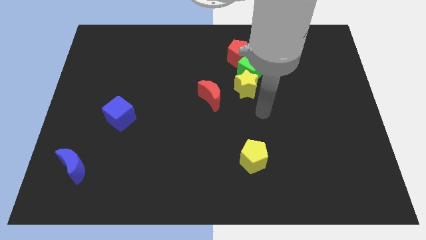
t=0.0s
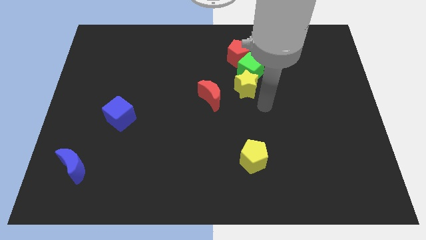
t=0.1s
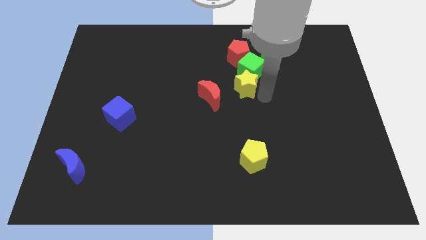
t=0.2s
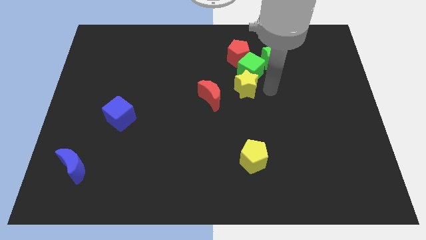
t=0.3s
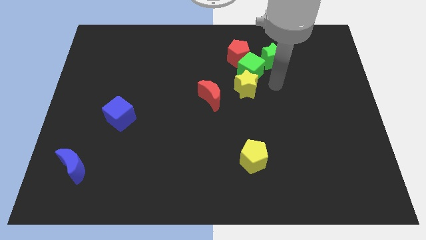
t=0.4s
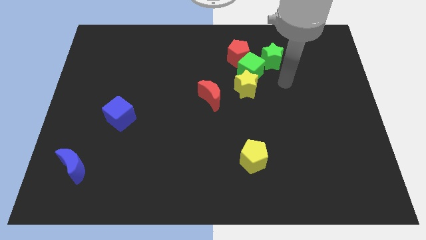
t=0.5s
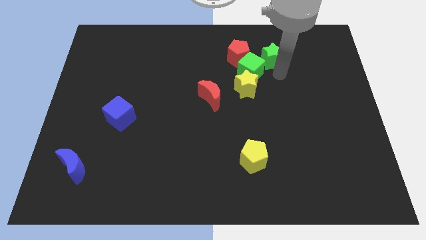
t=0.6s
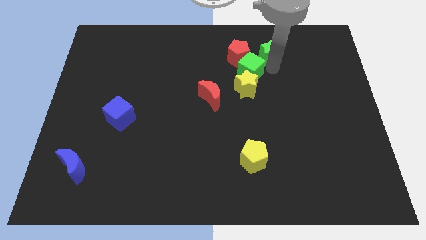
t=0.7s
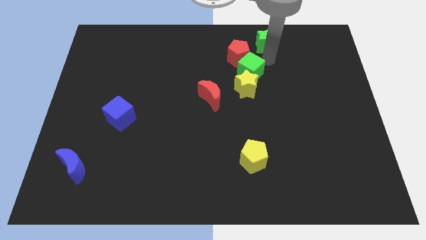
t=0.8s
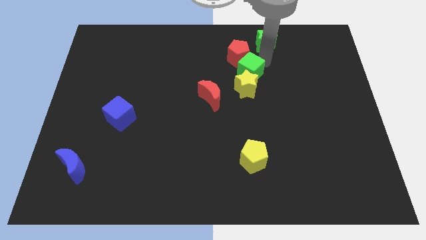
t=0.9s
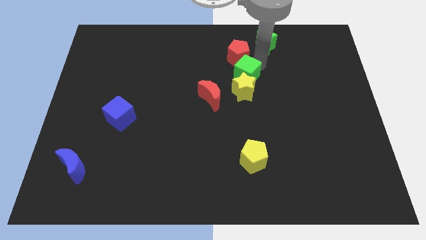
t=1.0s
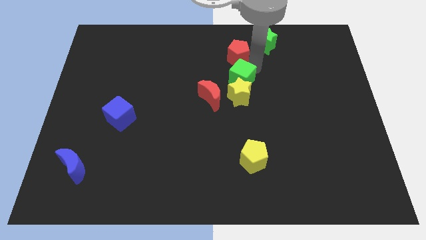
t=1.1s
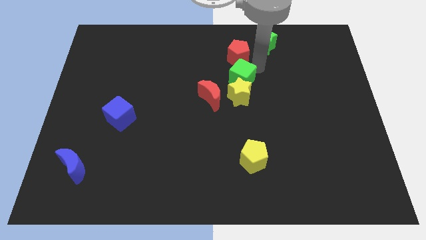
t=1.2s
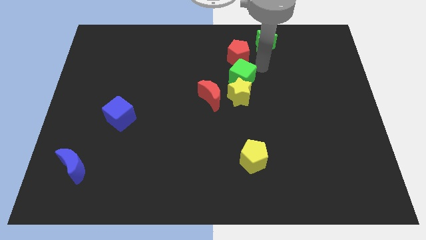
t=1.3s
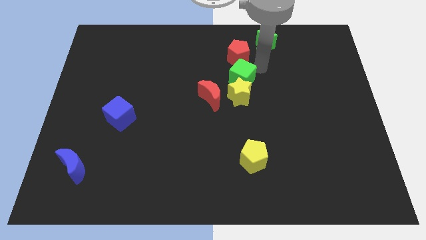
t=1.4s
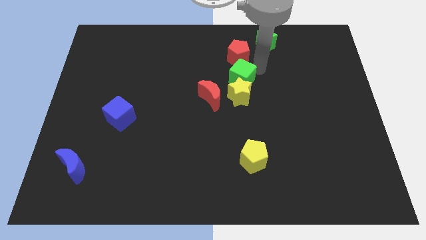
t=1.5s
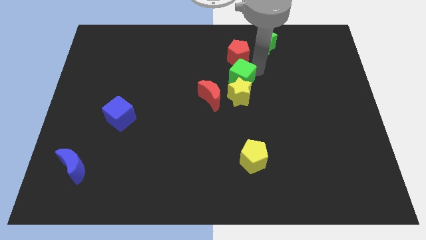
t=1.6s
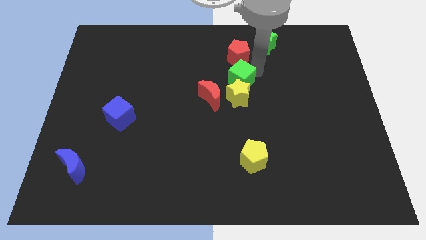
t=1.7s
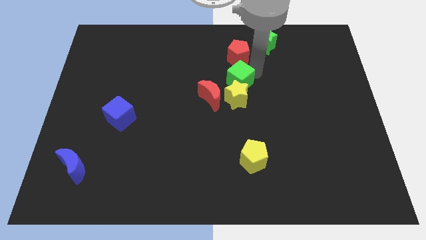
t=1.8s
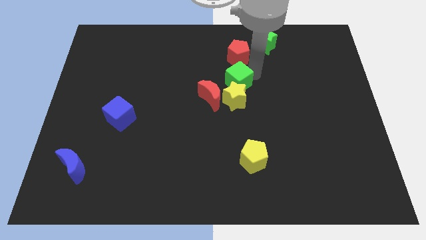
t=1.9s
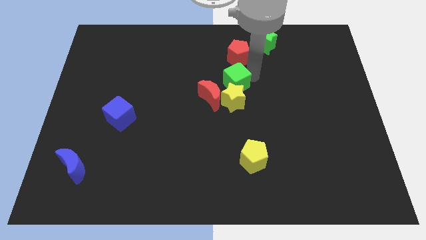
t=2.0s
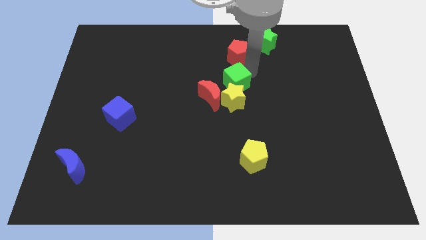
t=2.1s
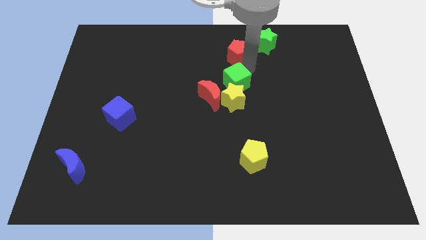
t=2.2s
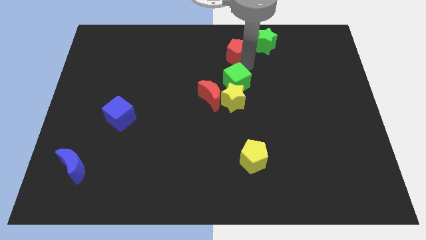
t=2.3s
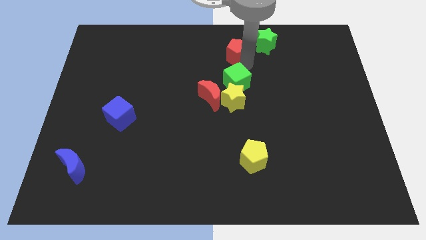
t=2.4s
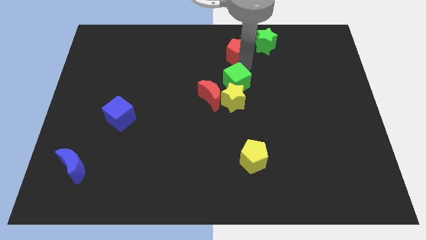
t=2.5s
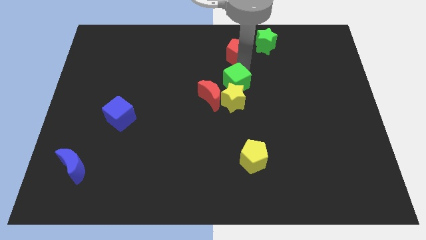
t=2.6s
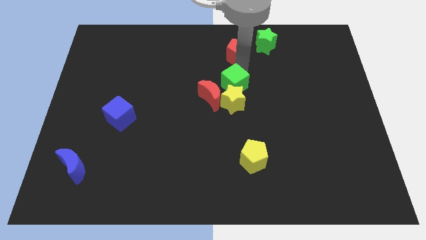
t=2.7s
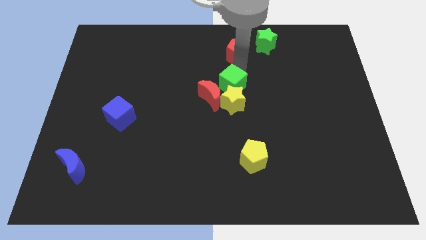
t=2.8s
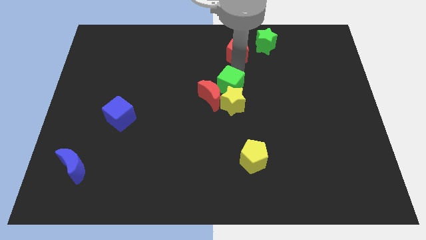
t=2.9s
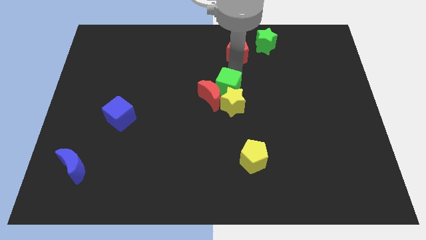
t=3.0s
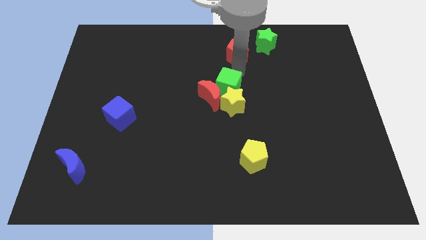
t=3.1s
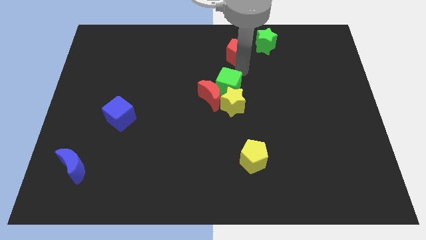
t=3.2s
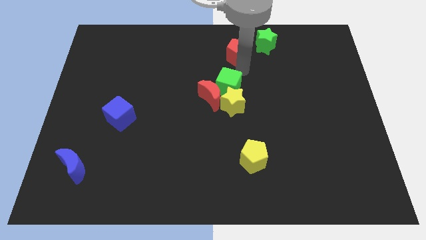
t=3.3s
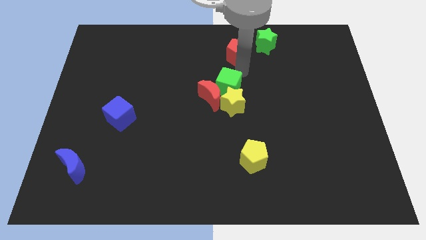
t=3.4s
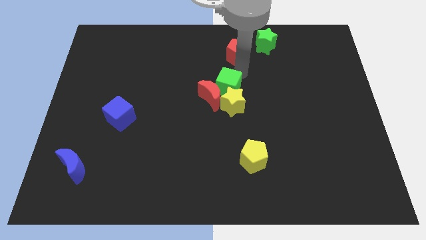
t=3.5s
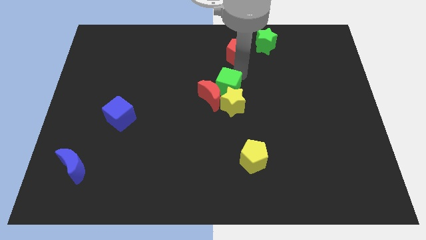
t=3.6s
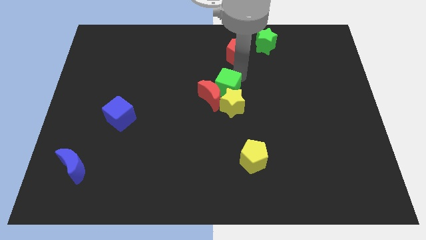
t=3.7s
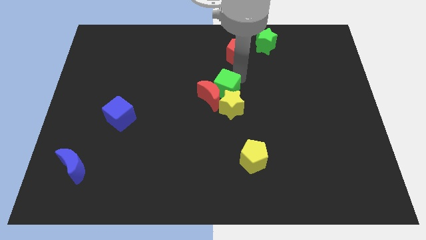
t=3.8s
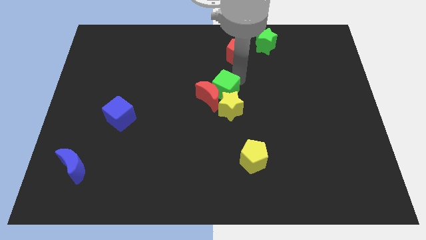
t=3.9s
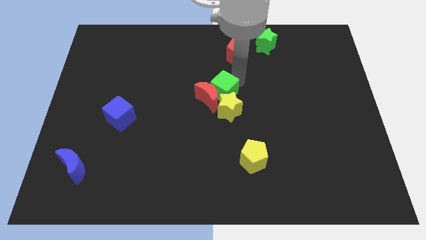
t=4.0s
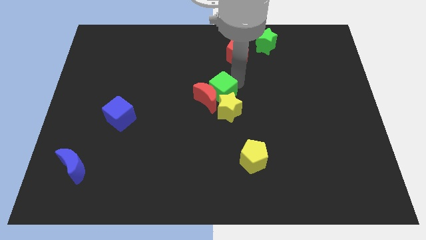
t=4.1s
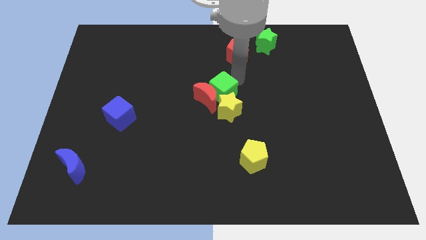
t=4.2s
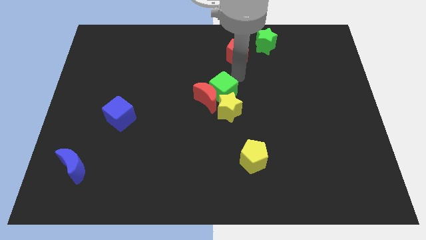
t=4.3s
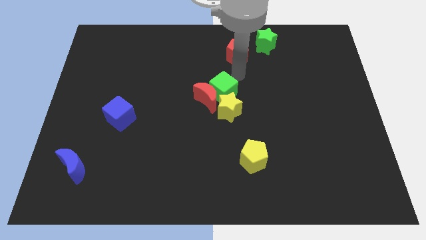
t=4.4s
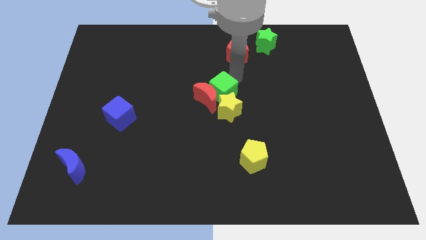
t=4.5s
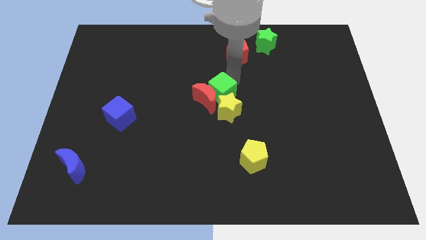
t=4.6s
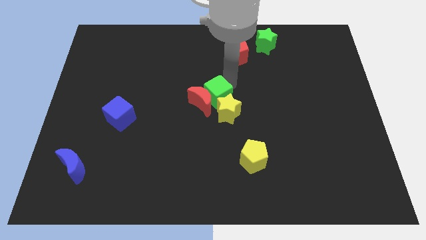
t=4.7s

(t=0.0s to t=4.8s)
move the green cube away from the red pentagon, yellow star, and green star

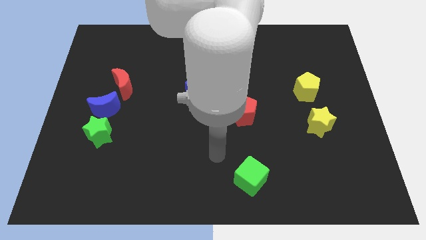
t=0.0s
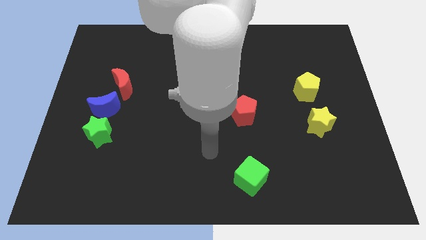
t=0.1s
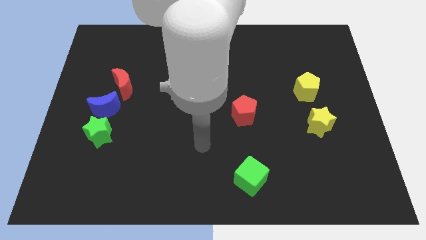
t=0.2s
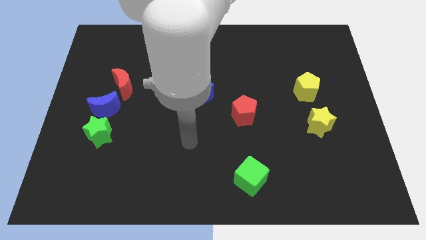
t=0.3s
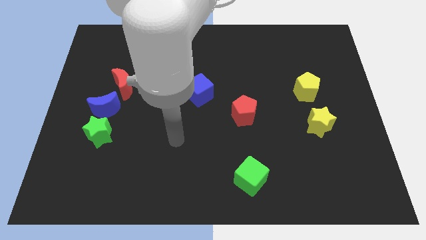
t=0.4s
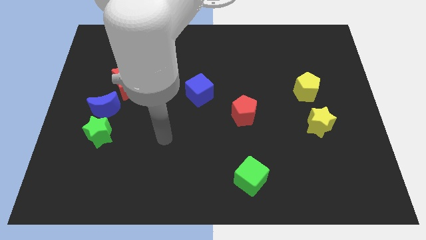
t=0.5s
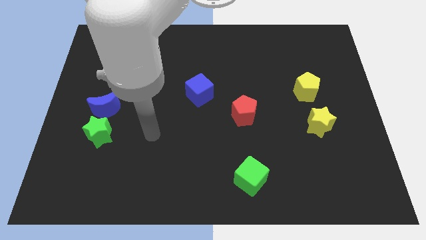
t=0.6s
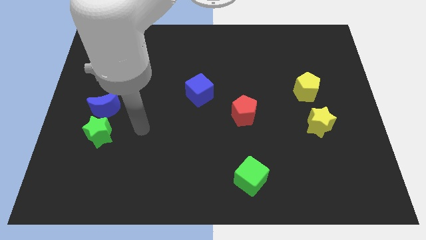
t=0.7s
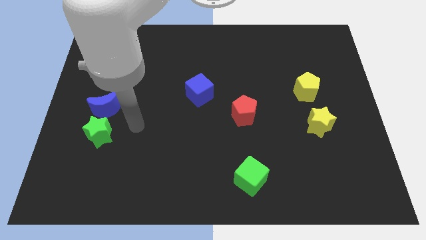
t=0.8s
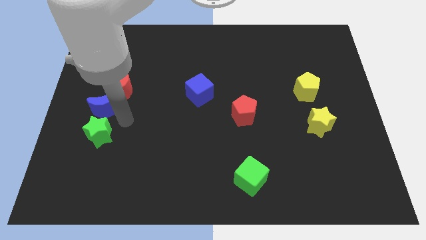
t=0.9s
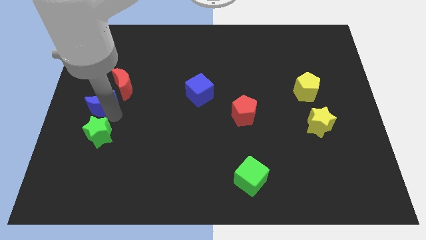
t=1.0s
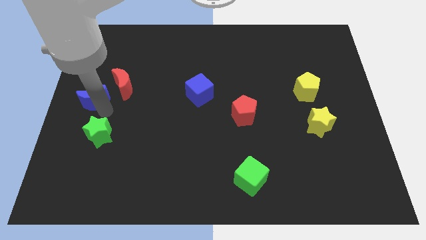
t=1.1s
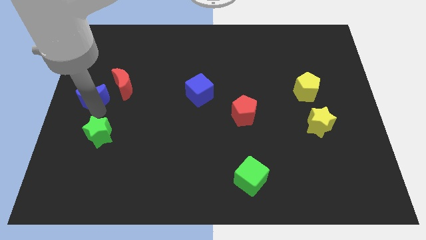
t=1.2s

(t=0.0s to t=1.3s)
separate the green star from the blue moon

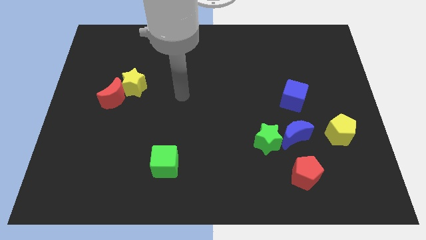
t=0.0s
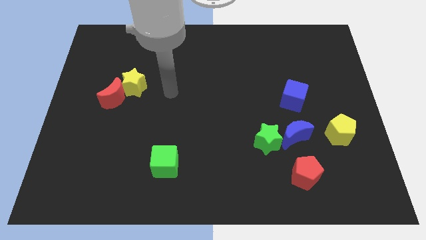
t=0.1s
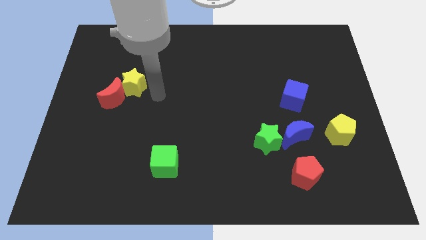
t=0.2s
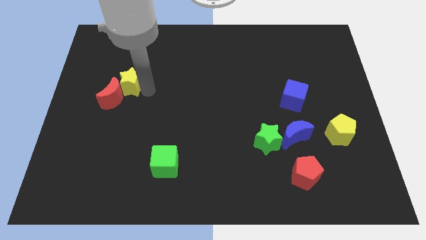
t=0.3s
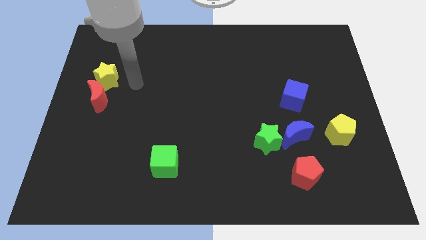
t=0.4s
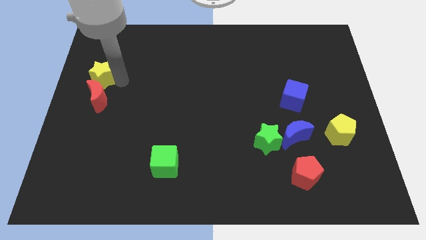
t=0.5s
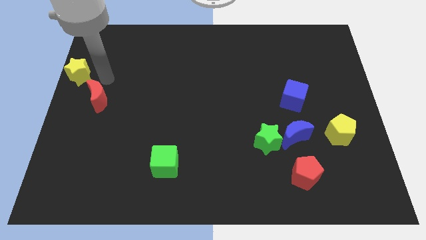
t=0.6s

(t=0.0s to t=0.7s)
move the red moon away from the yellow star

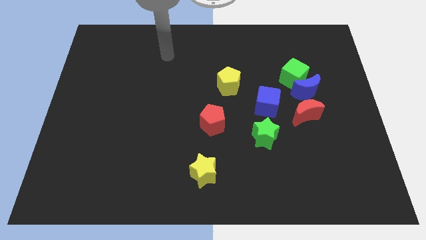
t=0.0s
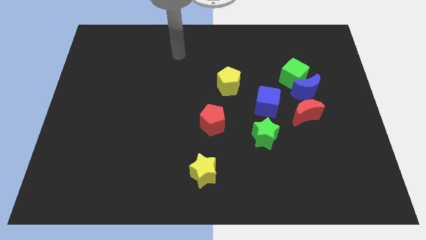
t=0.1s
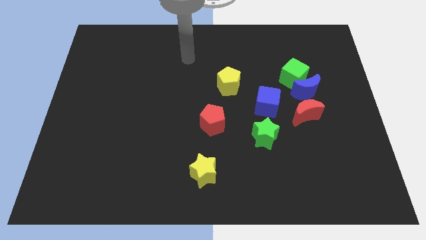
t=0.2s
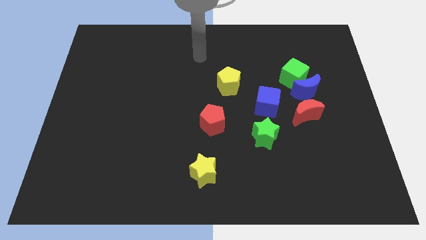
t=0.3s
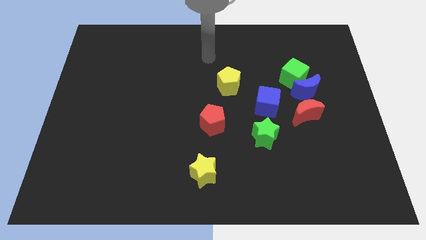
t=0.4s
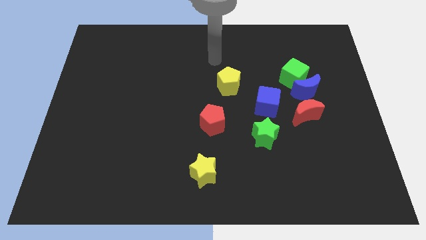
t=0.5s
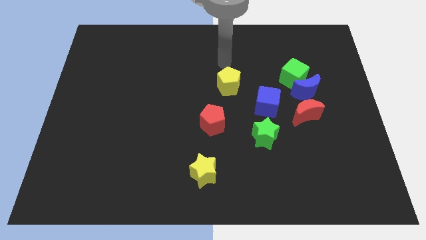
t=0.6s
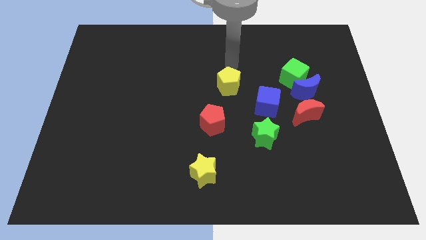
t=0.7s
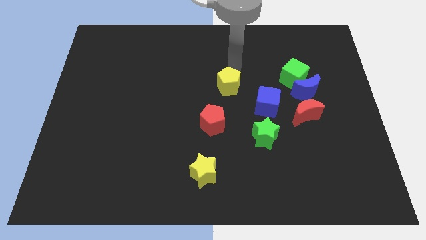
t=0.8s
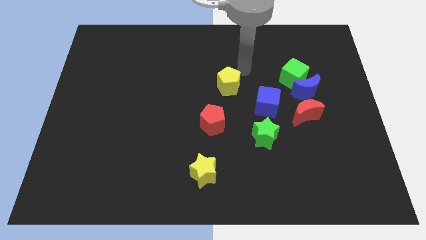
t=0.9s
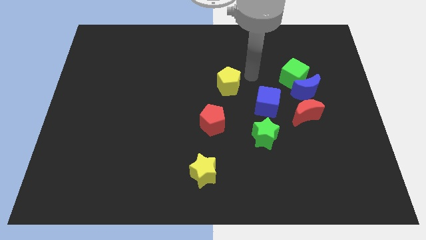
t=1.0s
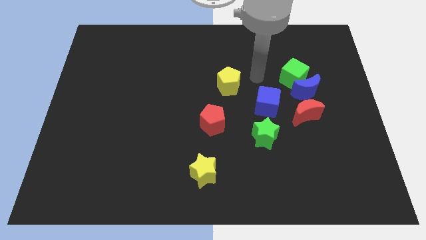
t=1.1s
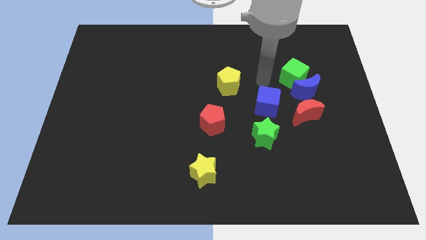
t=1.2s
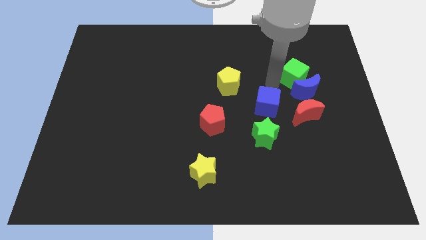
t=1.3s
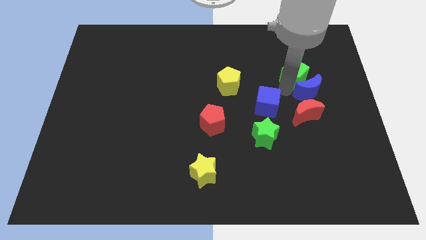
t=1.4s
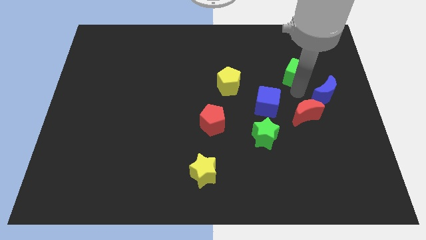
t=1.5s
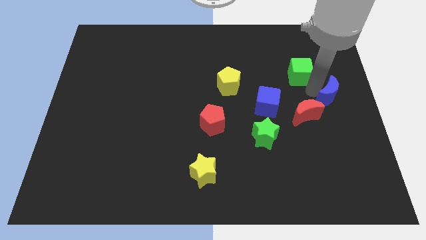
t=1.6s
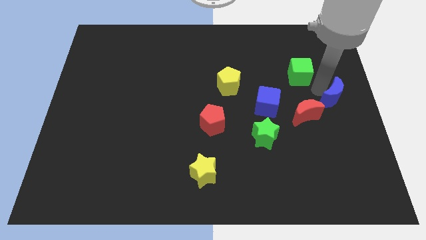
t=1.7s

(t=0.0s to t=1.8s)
separate the green cube from the blue moon

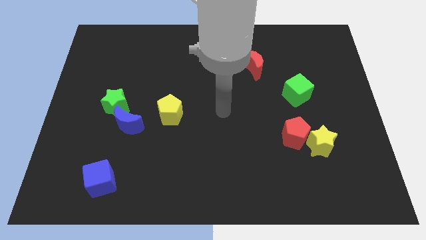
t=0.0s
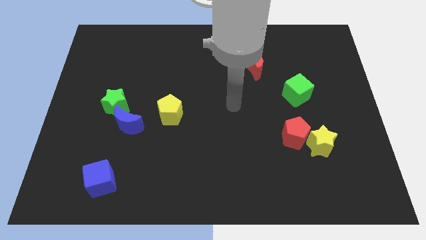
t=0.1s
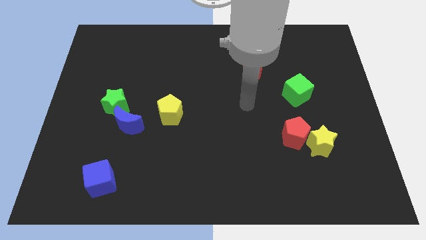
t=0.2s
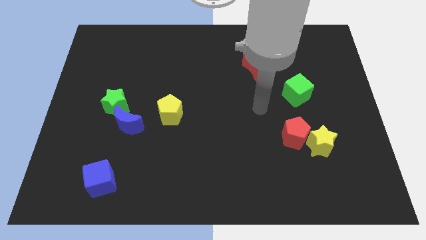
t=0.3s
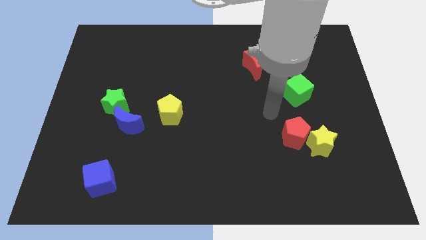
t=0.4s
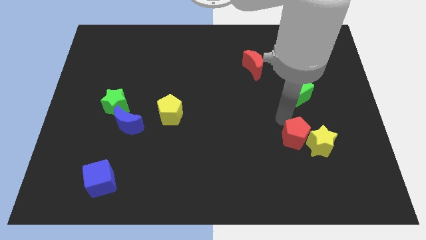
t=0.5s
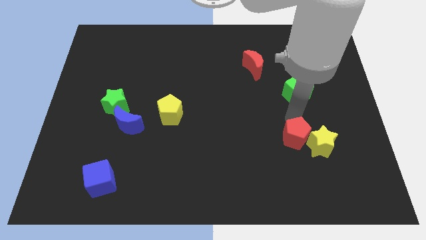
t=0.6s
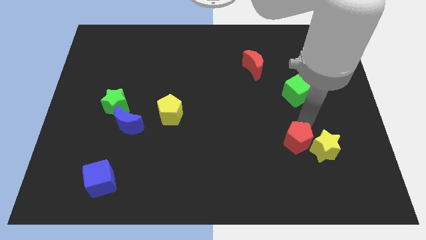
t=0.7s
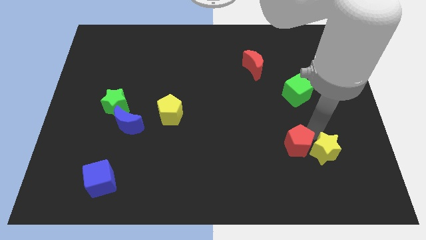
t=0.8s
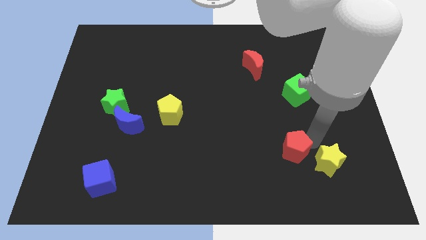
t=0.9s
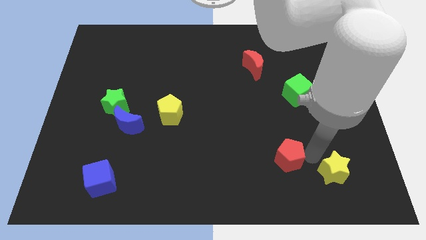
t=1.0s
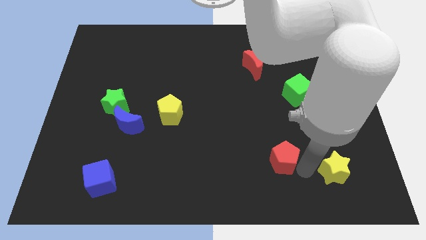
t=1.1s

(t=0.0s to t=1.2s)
pull the red pentagon apart from the yellow star
